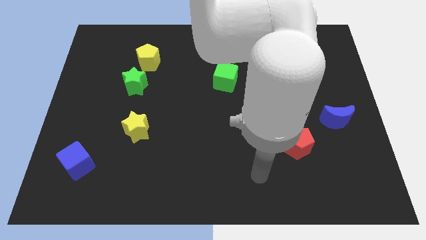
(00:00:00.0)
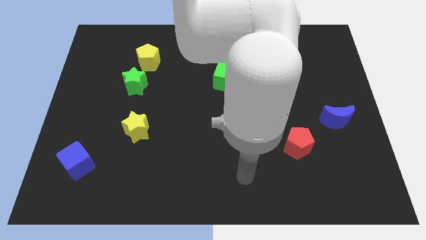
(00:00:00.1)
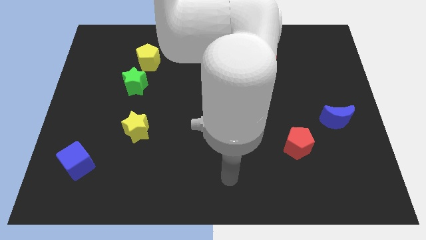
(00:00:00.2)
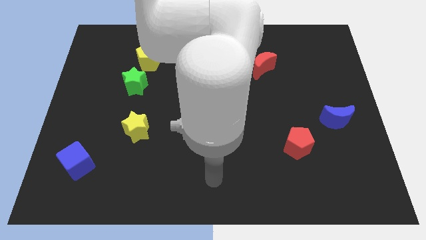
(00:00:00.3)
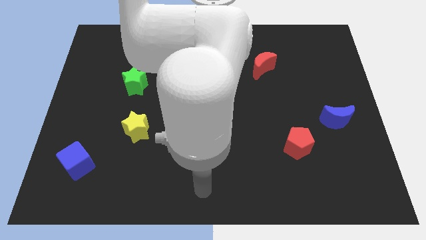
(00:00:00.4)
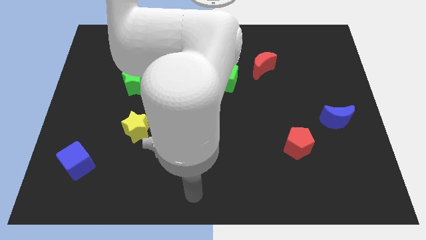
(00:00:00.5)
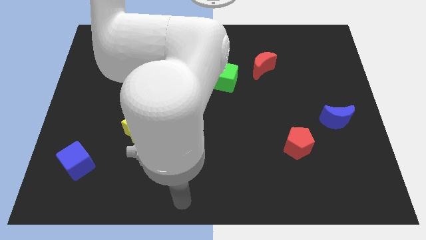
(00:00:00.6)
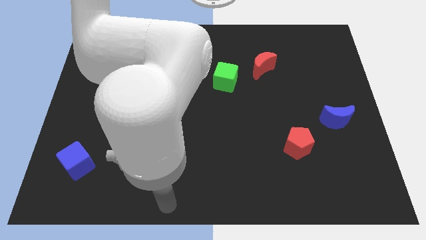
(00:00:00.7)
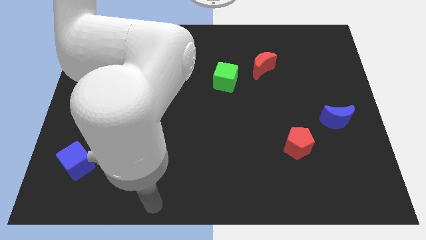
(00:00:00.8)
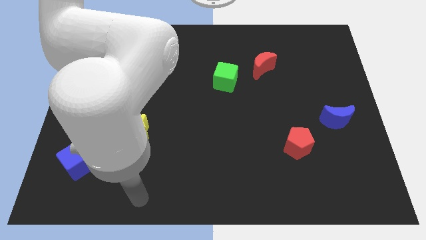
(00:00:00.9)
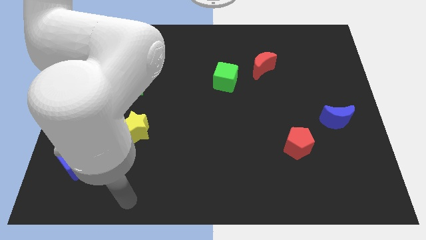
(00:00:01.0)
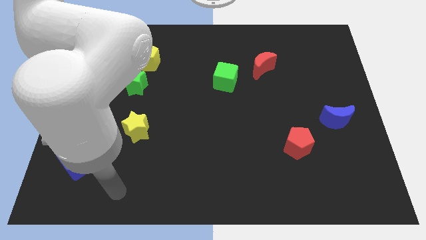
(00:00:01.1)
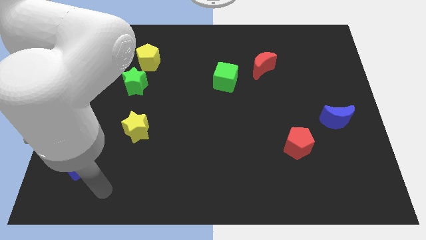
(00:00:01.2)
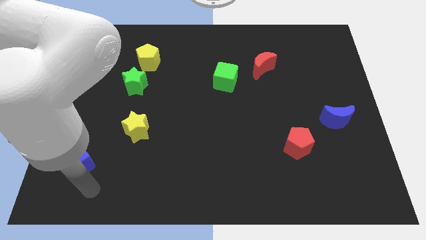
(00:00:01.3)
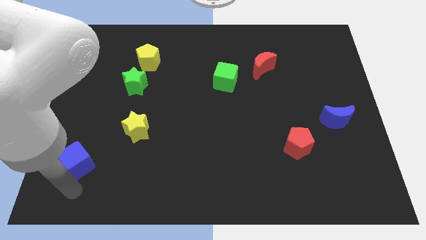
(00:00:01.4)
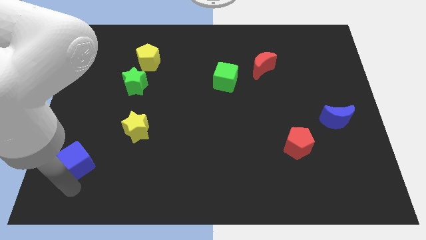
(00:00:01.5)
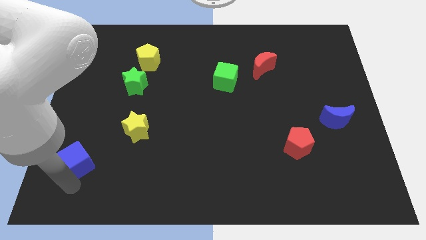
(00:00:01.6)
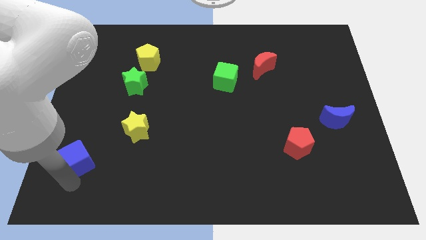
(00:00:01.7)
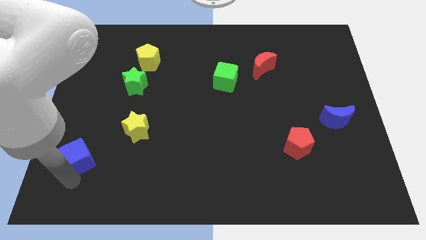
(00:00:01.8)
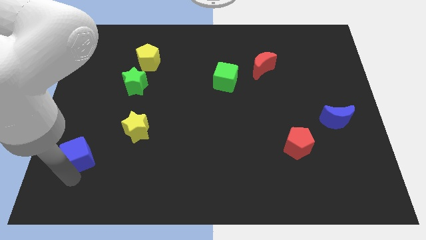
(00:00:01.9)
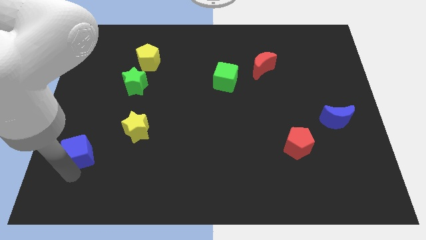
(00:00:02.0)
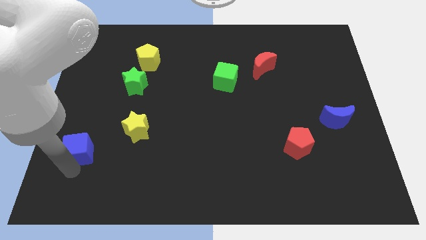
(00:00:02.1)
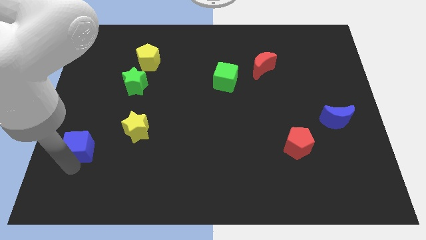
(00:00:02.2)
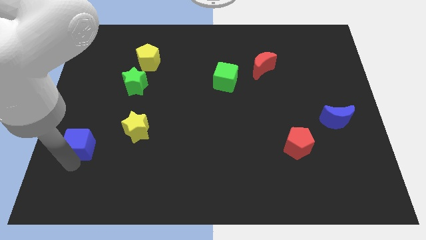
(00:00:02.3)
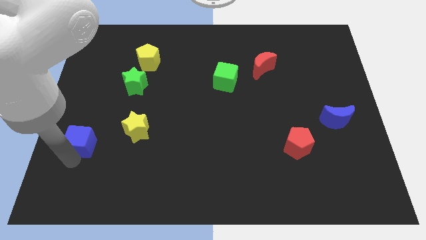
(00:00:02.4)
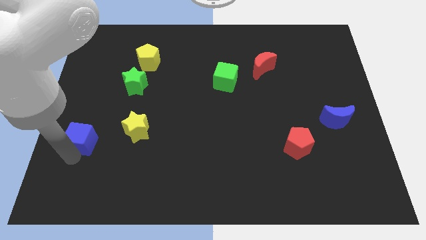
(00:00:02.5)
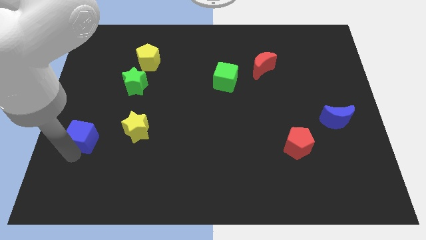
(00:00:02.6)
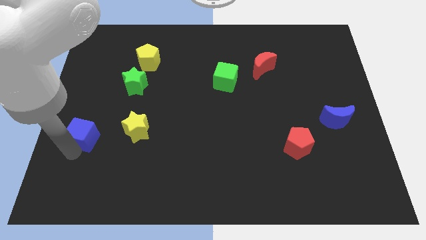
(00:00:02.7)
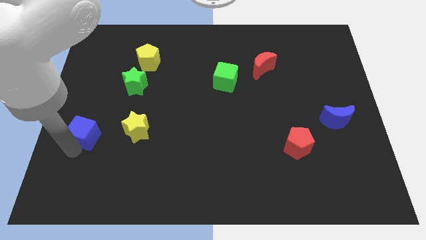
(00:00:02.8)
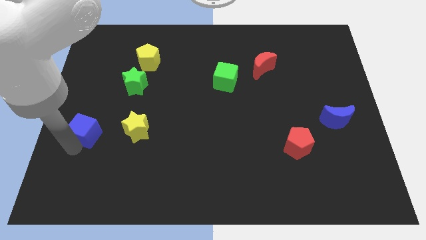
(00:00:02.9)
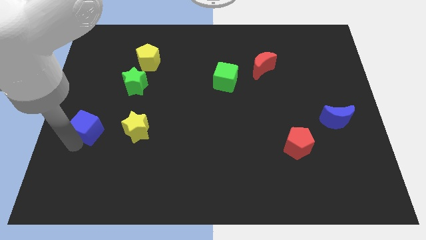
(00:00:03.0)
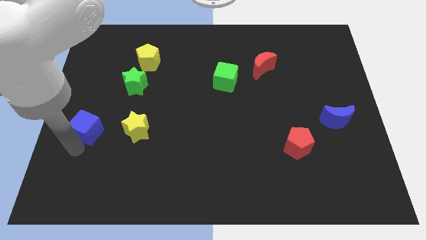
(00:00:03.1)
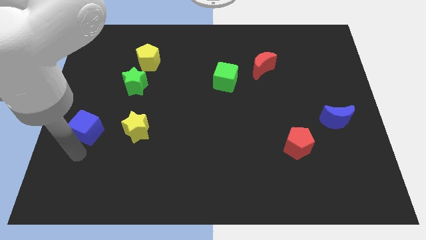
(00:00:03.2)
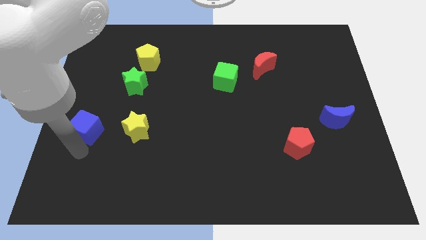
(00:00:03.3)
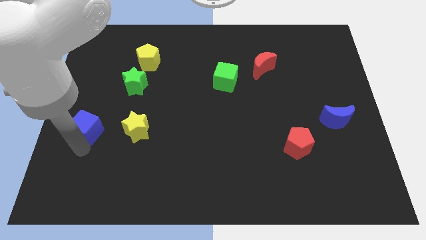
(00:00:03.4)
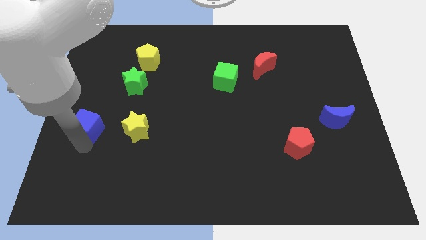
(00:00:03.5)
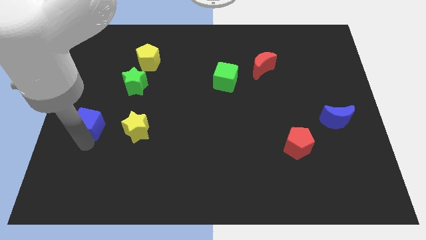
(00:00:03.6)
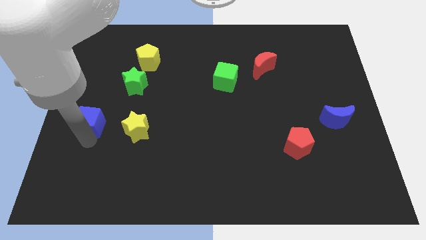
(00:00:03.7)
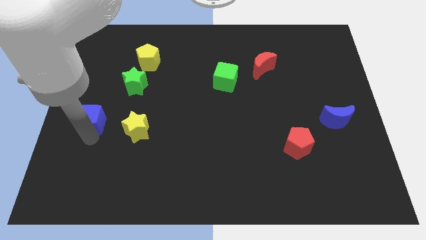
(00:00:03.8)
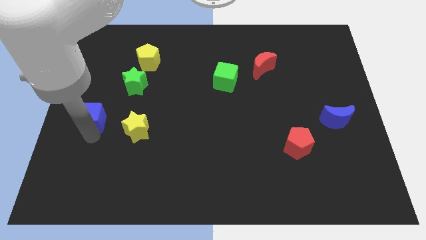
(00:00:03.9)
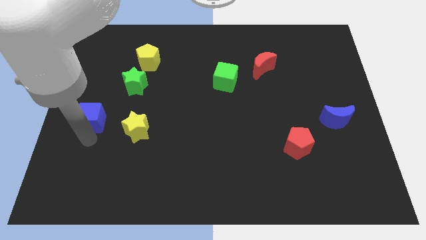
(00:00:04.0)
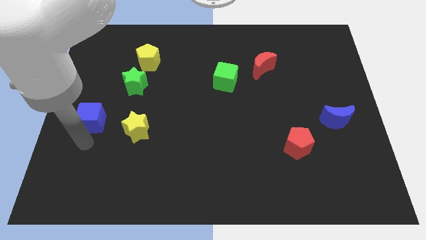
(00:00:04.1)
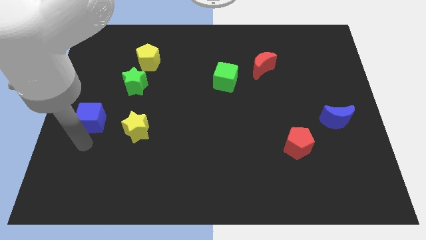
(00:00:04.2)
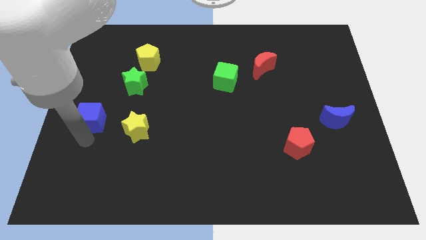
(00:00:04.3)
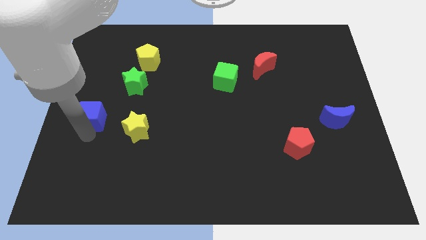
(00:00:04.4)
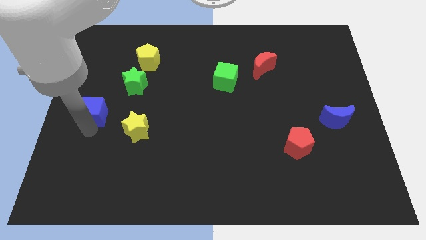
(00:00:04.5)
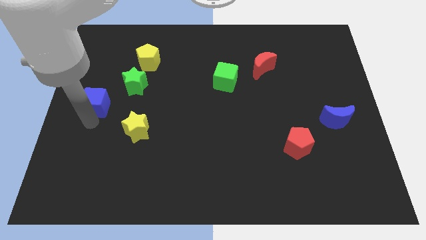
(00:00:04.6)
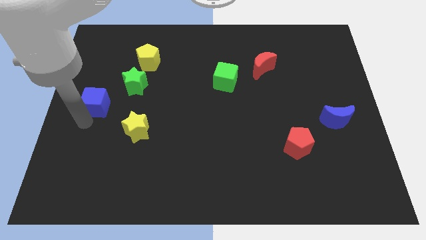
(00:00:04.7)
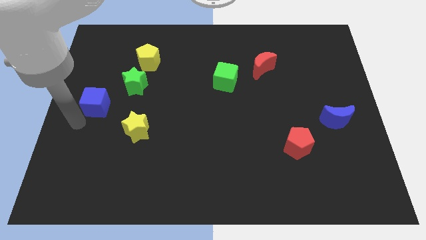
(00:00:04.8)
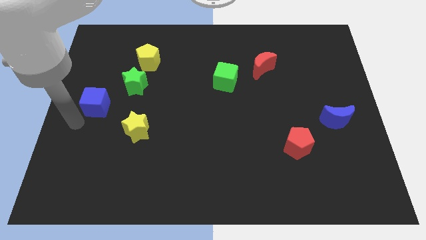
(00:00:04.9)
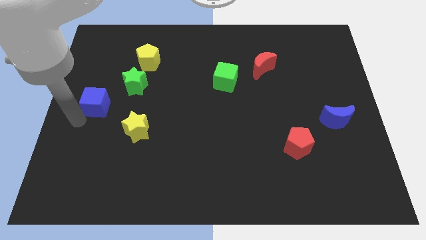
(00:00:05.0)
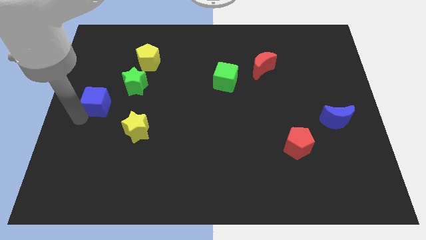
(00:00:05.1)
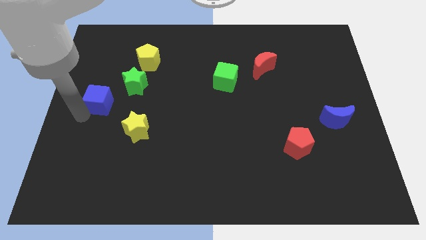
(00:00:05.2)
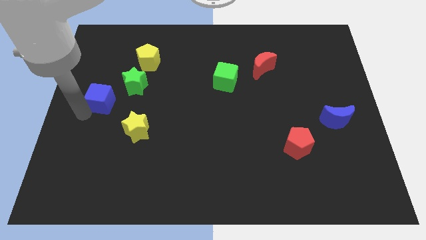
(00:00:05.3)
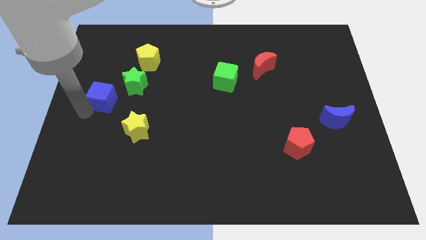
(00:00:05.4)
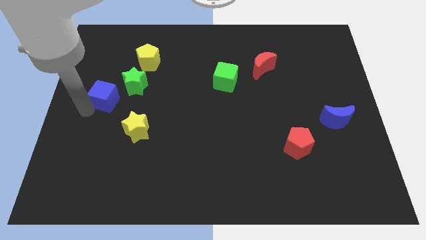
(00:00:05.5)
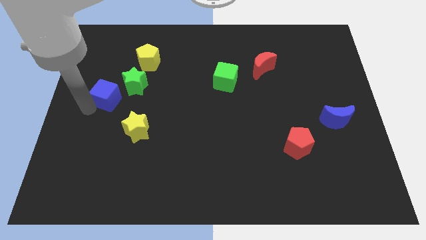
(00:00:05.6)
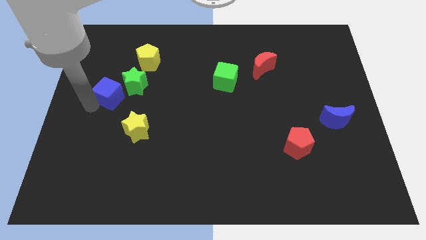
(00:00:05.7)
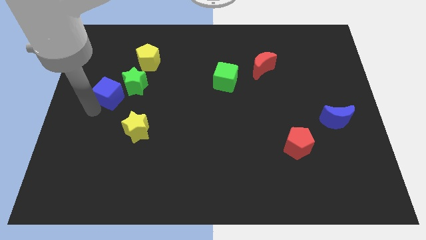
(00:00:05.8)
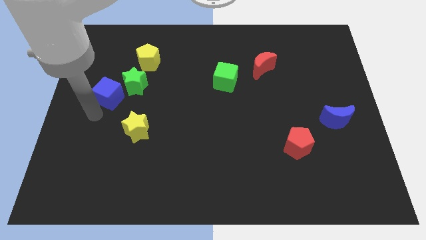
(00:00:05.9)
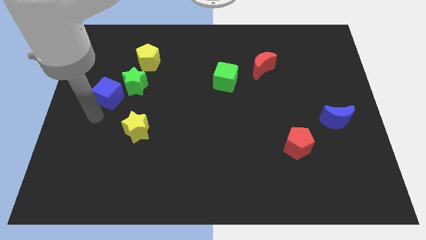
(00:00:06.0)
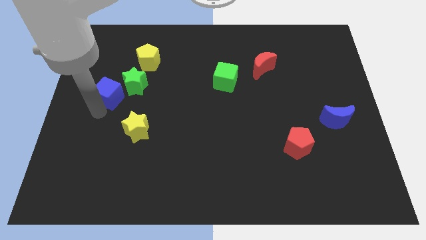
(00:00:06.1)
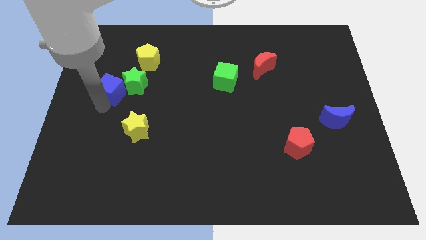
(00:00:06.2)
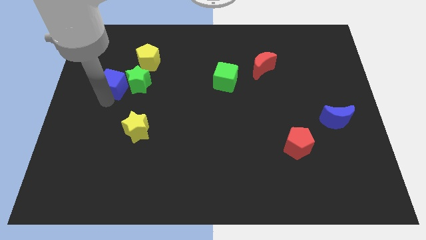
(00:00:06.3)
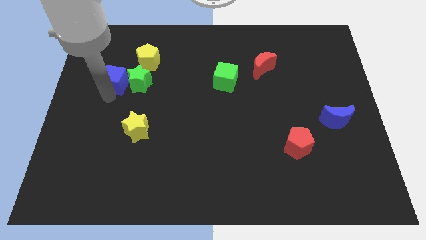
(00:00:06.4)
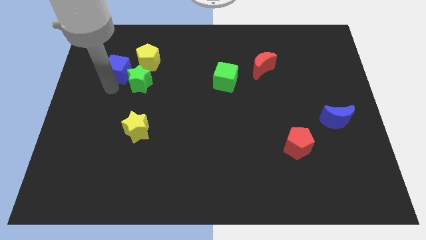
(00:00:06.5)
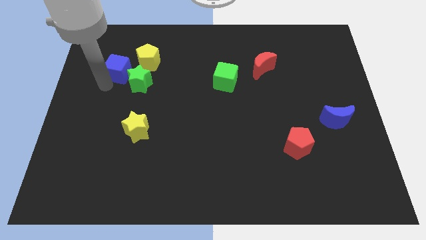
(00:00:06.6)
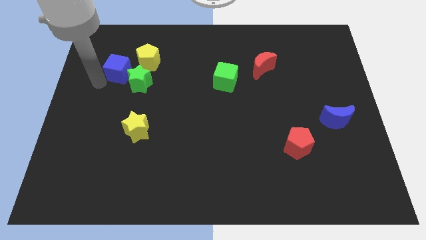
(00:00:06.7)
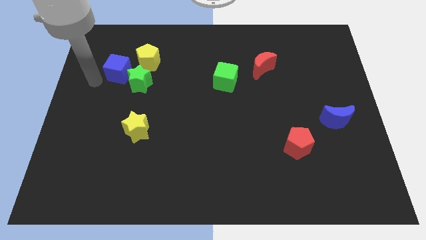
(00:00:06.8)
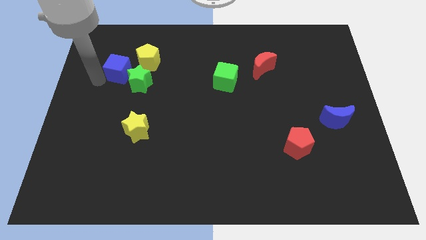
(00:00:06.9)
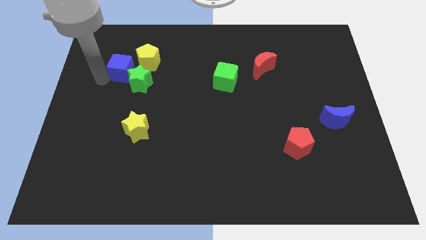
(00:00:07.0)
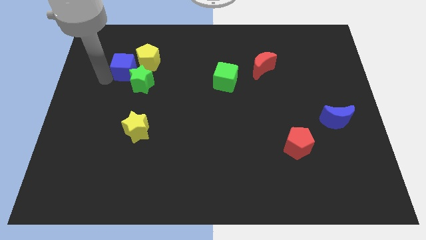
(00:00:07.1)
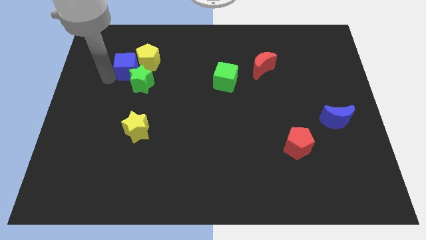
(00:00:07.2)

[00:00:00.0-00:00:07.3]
move the blue cube to the yellow pentagon
